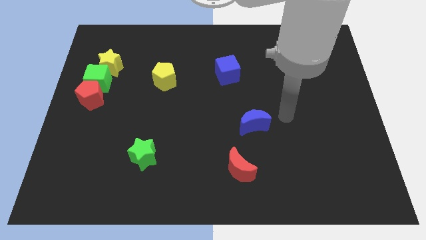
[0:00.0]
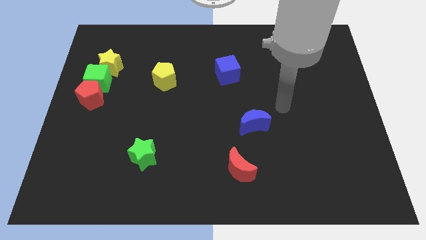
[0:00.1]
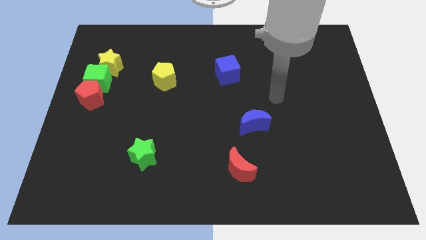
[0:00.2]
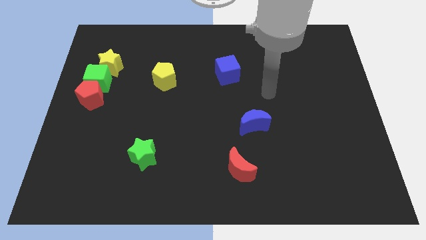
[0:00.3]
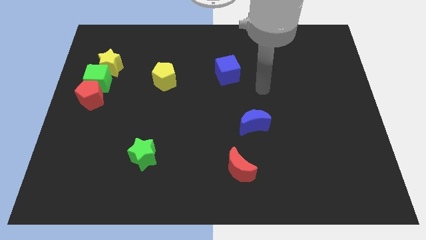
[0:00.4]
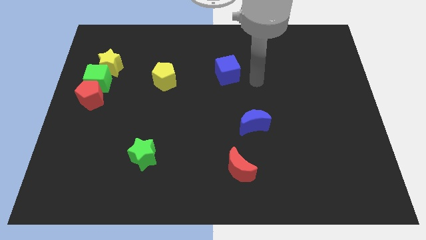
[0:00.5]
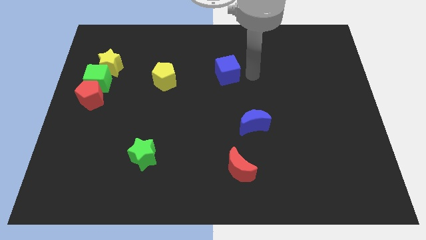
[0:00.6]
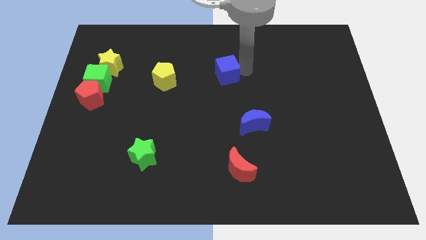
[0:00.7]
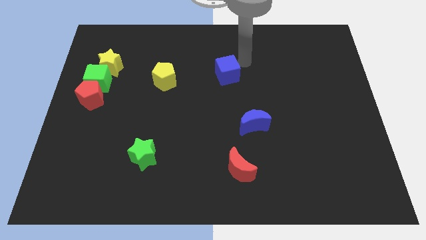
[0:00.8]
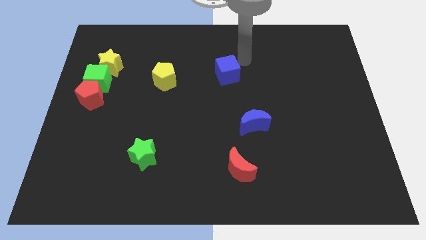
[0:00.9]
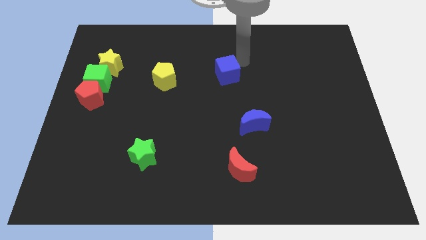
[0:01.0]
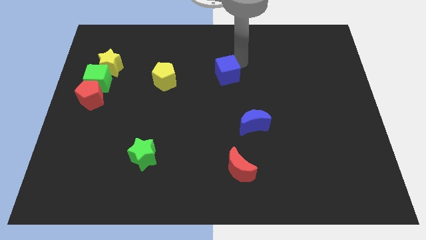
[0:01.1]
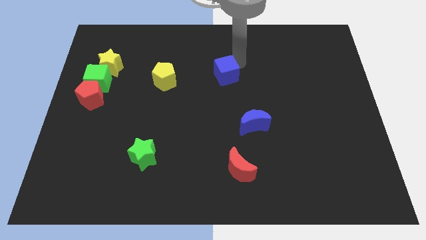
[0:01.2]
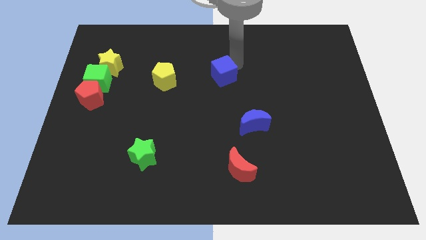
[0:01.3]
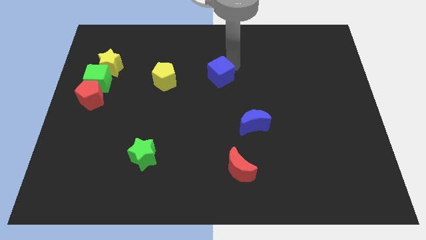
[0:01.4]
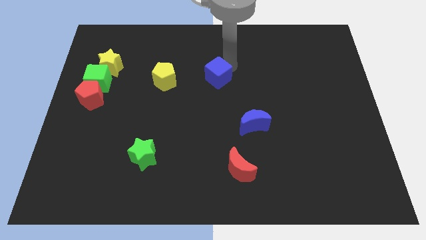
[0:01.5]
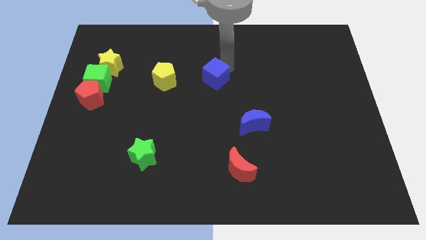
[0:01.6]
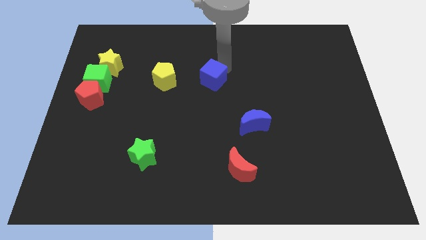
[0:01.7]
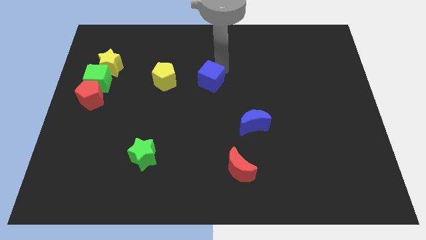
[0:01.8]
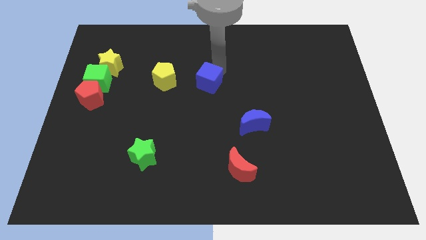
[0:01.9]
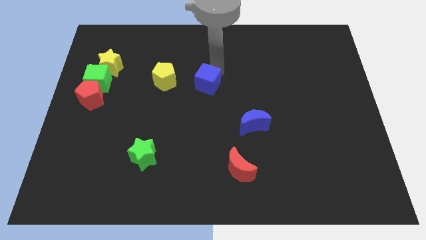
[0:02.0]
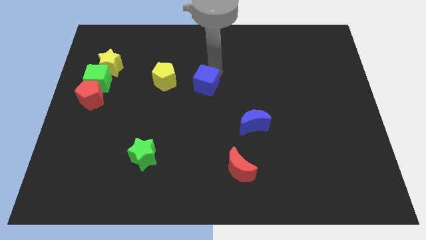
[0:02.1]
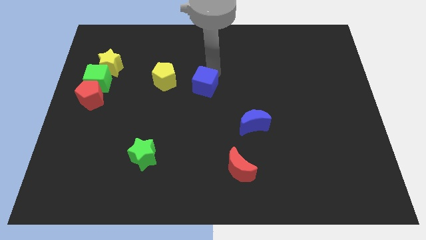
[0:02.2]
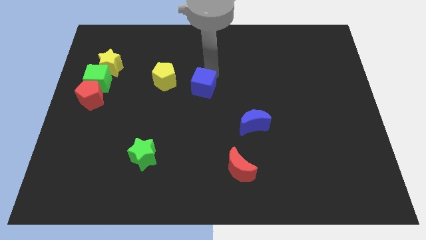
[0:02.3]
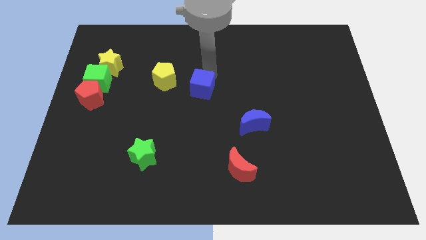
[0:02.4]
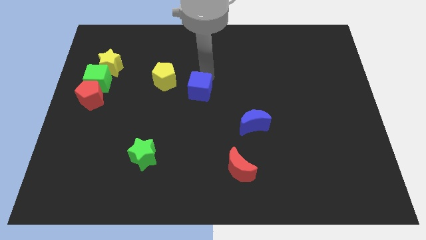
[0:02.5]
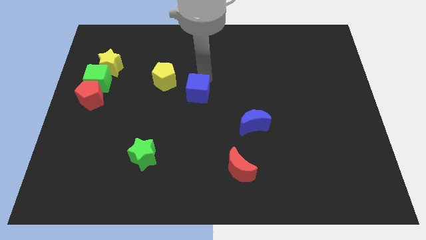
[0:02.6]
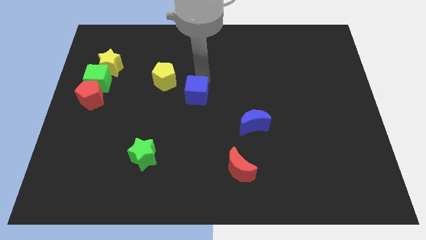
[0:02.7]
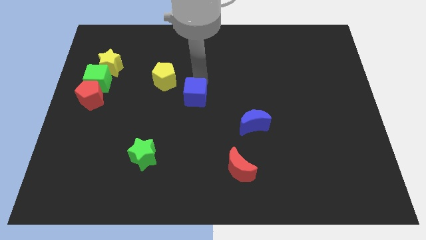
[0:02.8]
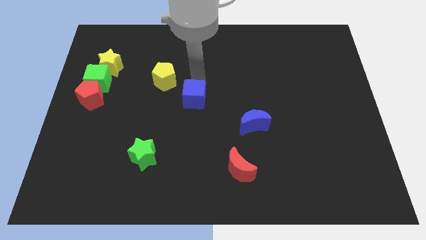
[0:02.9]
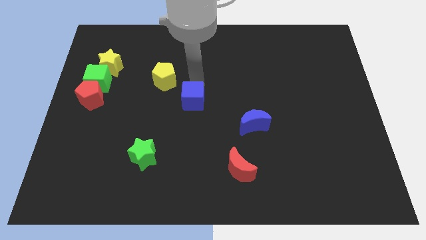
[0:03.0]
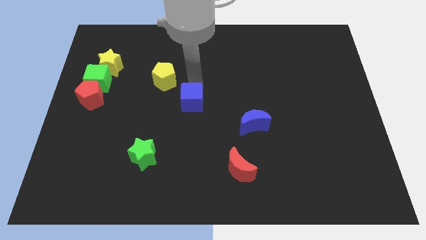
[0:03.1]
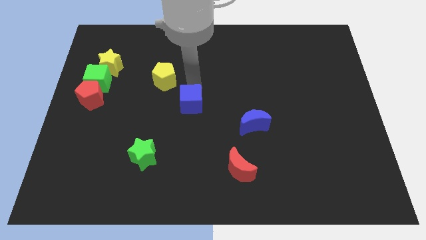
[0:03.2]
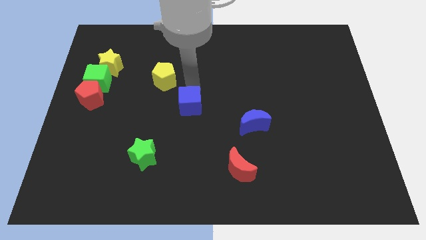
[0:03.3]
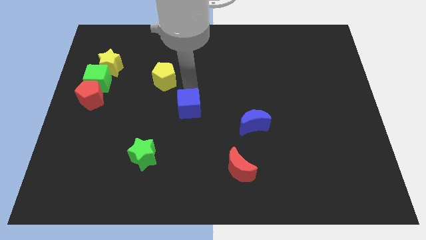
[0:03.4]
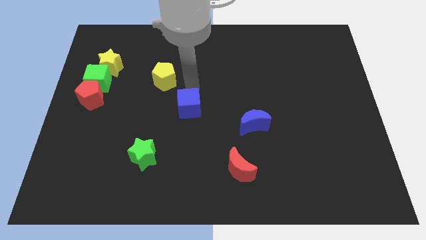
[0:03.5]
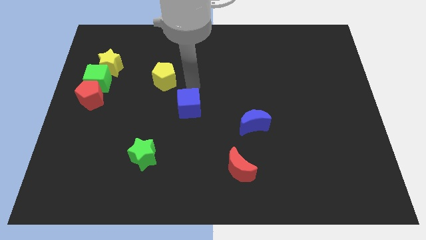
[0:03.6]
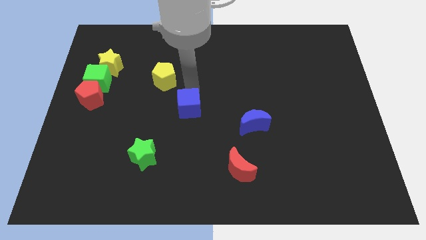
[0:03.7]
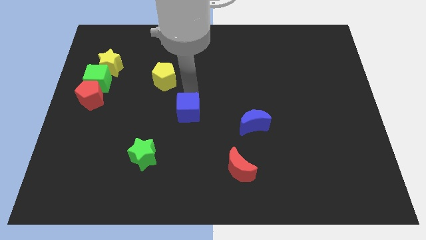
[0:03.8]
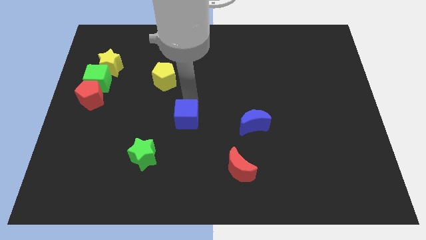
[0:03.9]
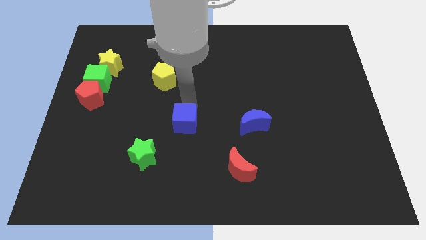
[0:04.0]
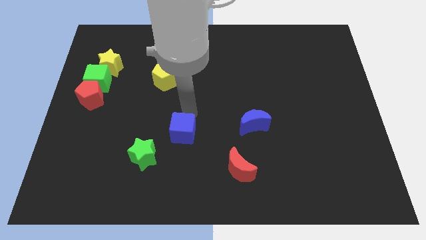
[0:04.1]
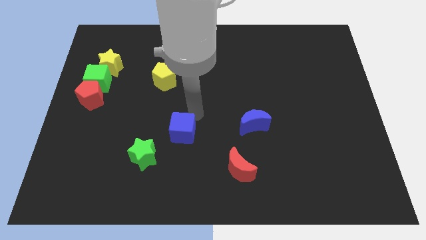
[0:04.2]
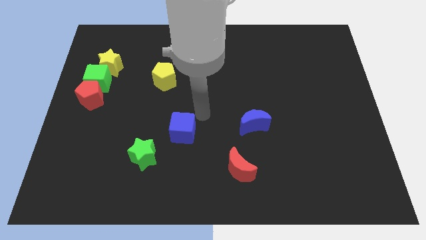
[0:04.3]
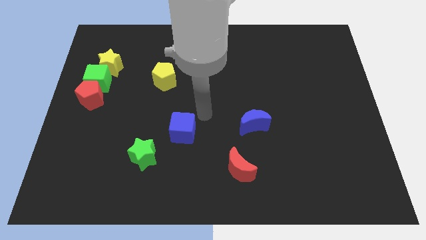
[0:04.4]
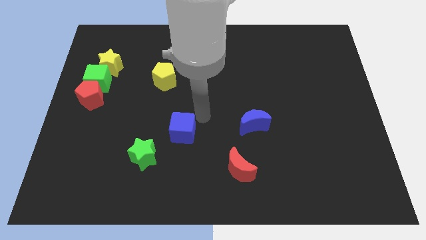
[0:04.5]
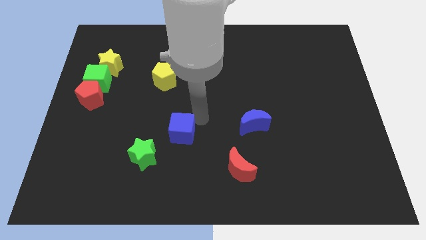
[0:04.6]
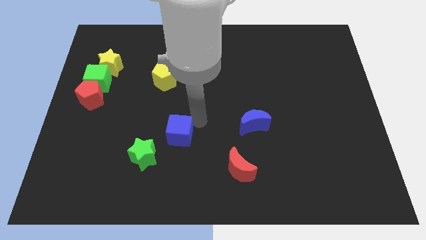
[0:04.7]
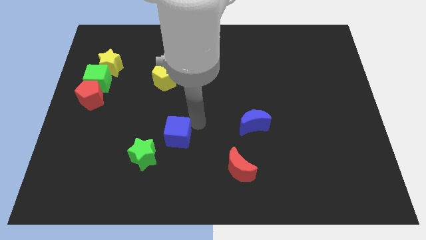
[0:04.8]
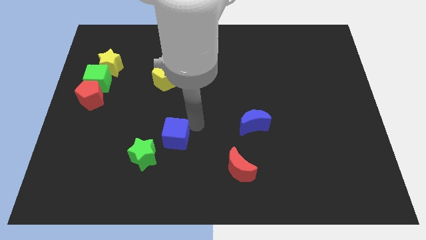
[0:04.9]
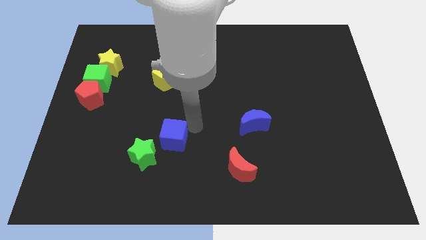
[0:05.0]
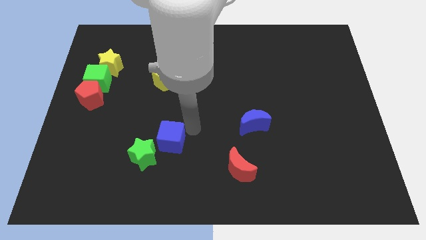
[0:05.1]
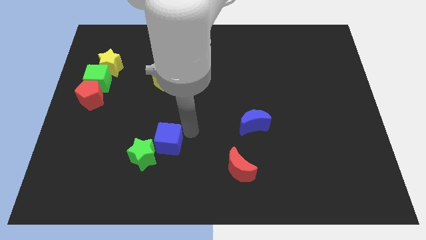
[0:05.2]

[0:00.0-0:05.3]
move the blue cube towards the green star

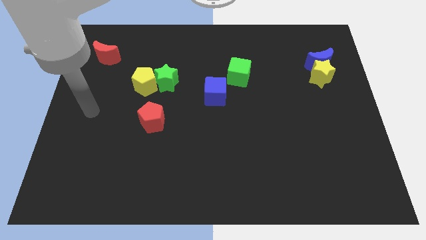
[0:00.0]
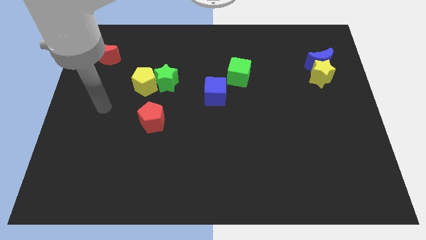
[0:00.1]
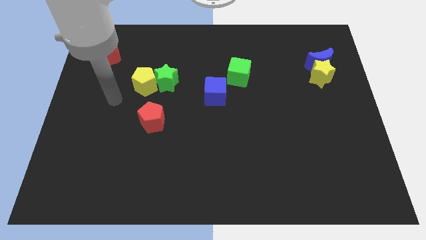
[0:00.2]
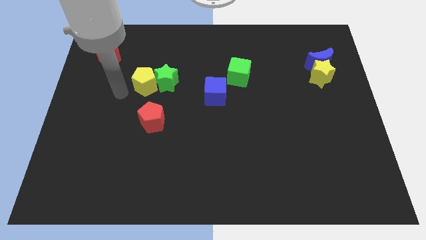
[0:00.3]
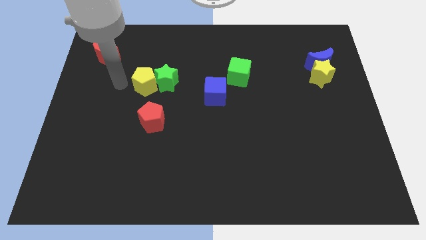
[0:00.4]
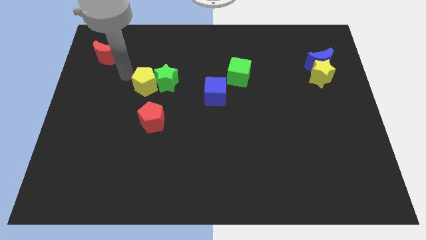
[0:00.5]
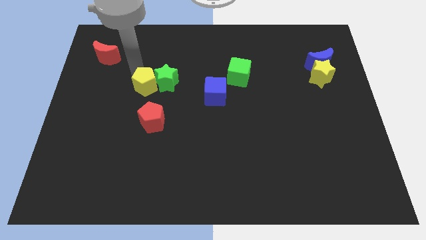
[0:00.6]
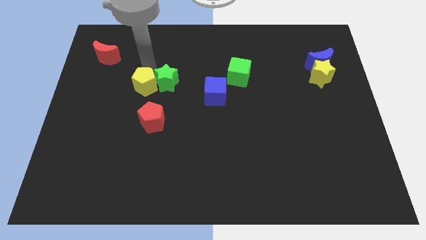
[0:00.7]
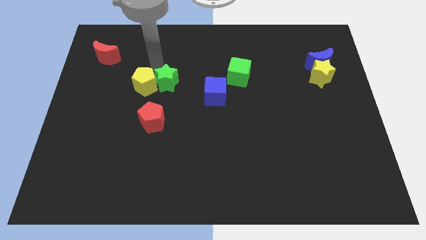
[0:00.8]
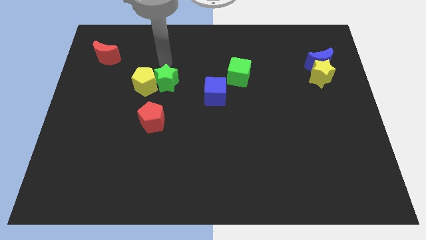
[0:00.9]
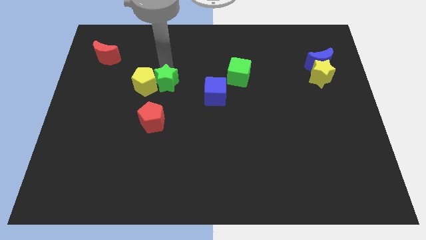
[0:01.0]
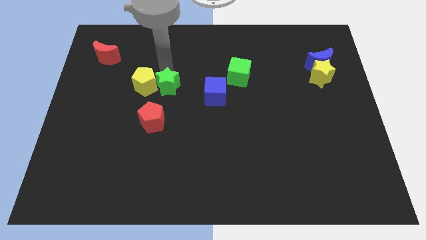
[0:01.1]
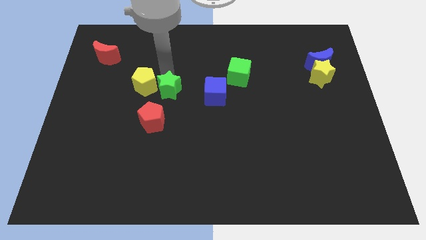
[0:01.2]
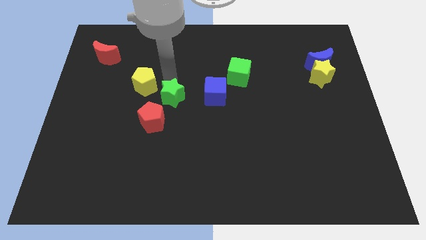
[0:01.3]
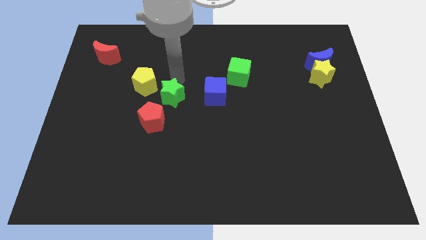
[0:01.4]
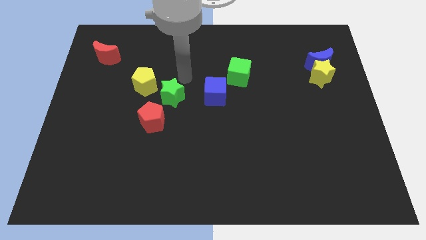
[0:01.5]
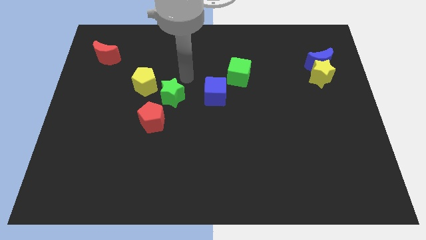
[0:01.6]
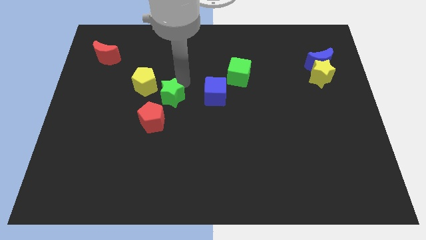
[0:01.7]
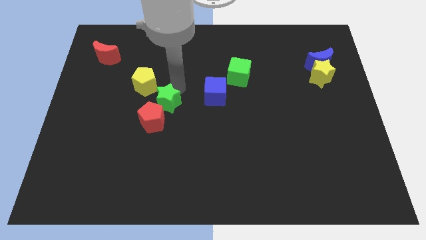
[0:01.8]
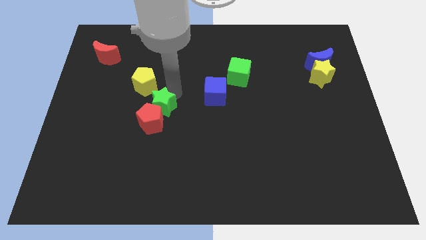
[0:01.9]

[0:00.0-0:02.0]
slide the green star towards the red pentagon
